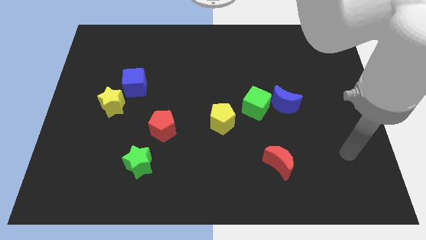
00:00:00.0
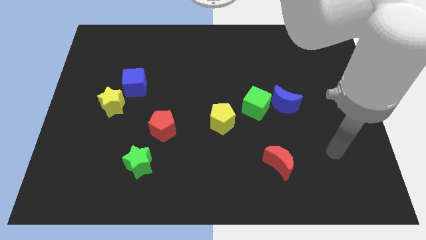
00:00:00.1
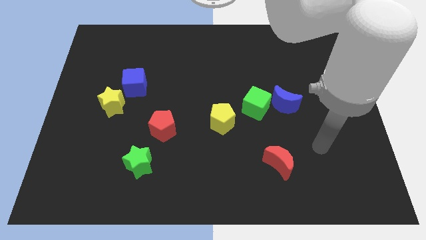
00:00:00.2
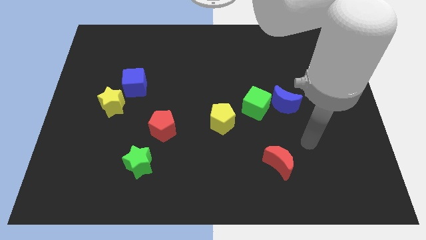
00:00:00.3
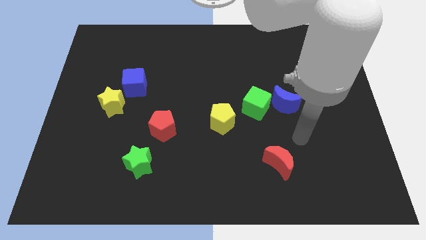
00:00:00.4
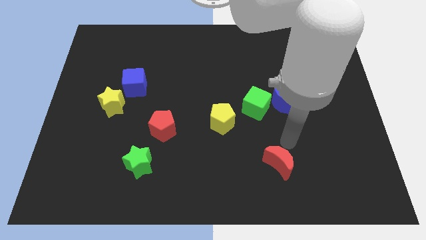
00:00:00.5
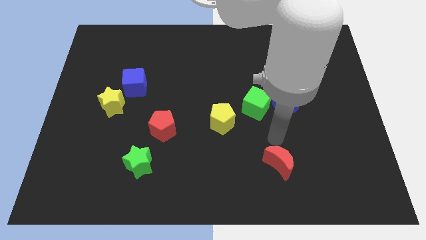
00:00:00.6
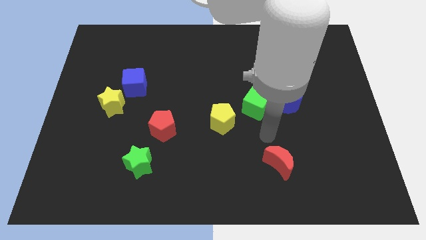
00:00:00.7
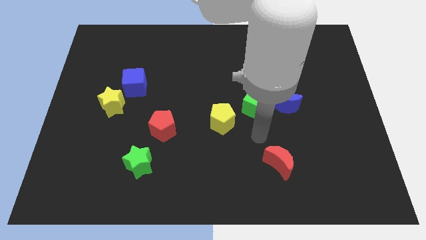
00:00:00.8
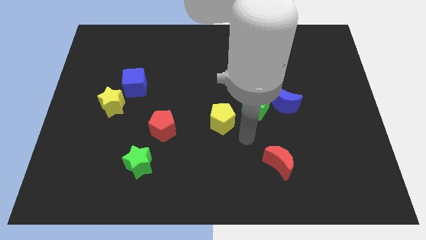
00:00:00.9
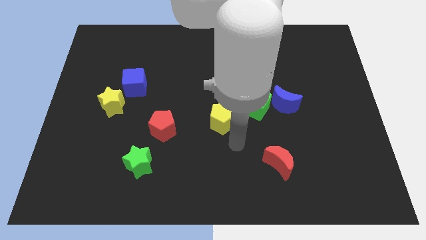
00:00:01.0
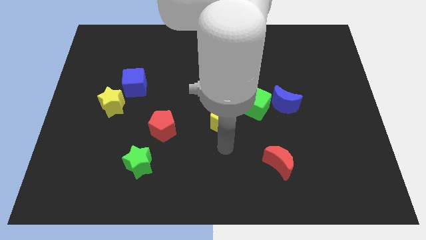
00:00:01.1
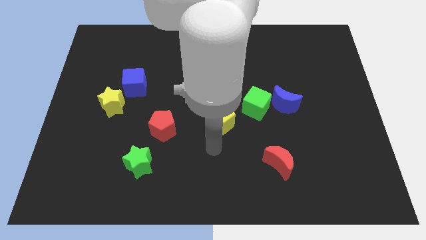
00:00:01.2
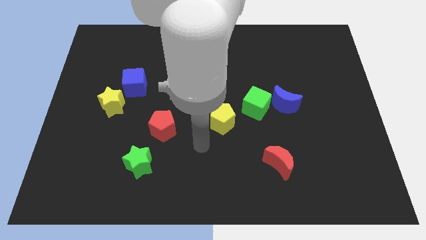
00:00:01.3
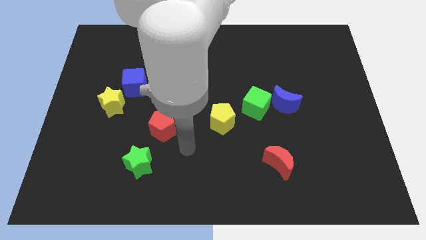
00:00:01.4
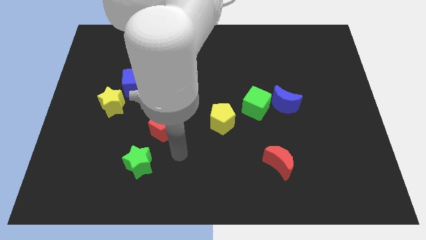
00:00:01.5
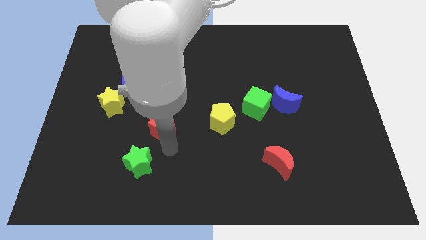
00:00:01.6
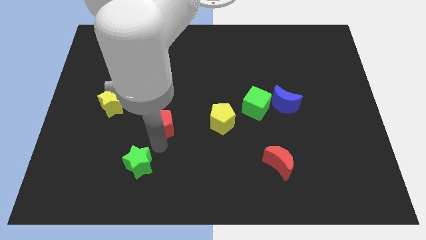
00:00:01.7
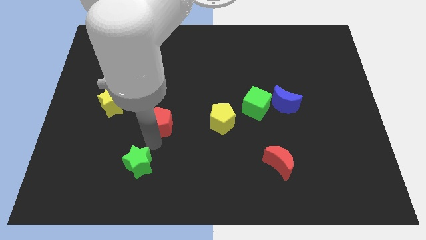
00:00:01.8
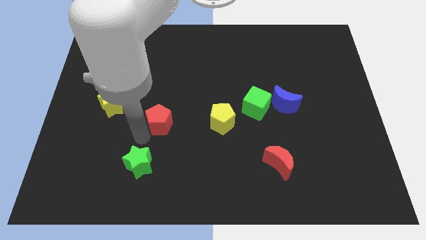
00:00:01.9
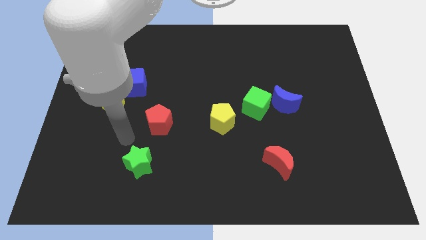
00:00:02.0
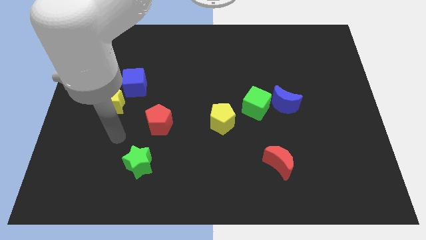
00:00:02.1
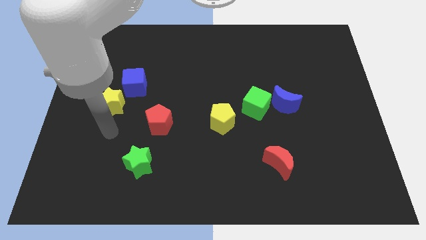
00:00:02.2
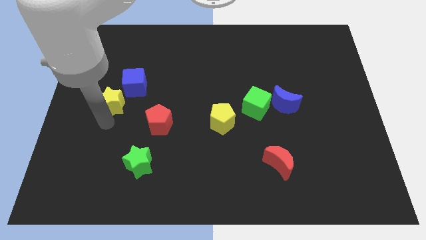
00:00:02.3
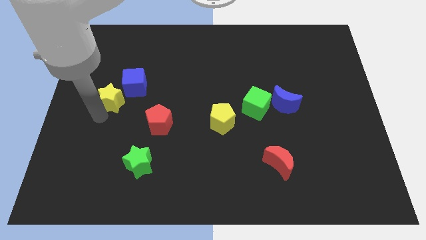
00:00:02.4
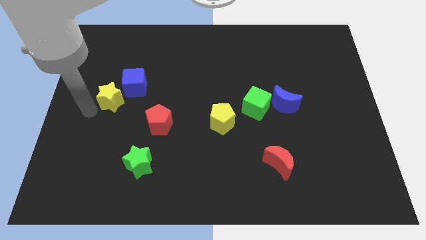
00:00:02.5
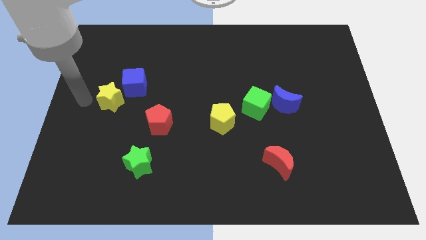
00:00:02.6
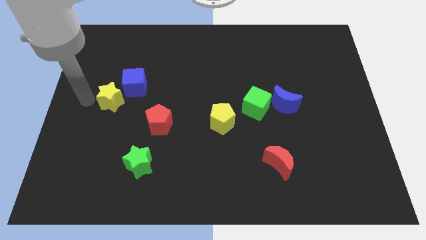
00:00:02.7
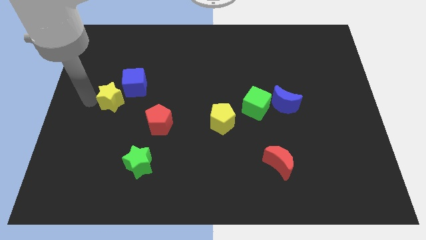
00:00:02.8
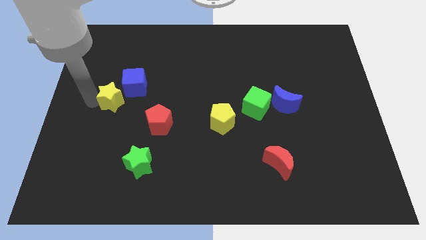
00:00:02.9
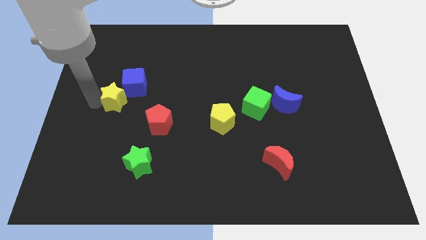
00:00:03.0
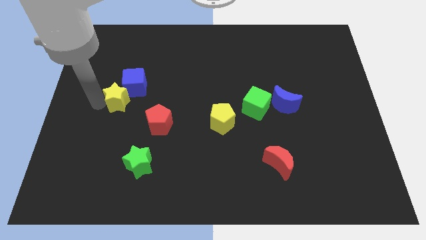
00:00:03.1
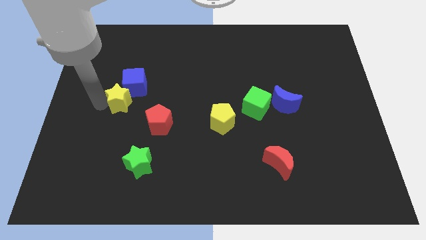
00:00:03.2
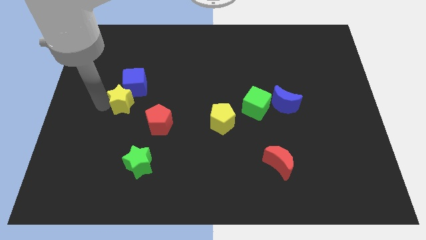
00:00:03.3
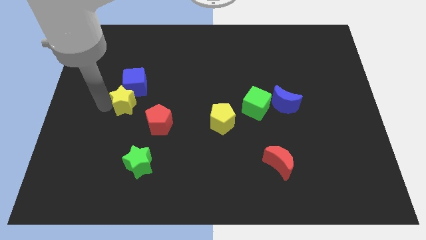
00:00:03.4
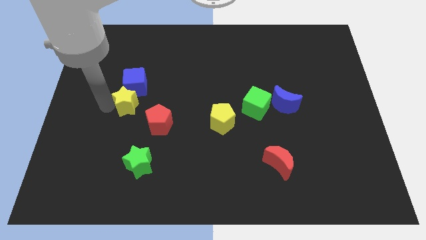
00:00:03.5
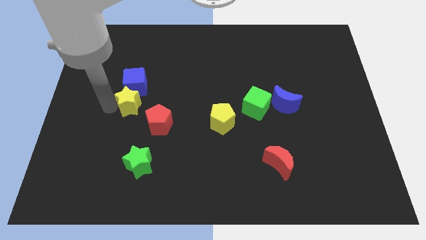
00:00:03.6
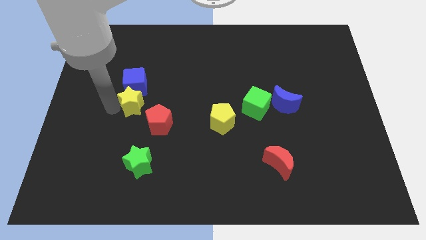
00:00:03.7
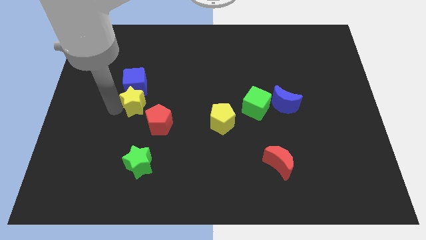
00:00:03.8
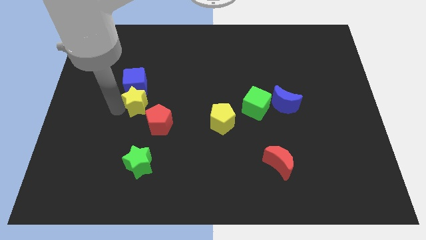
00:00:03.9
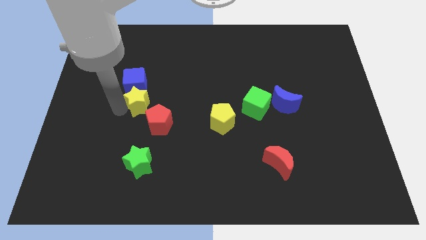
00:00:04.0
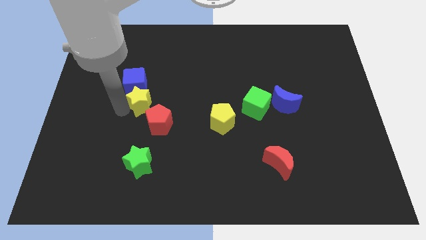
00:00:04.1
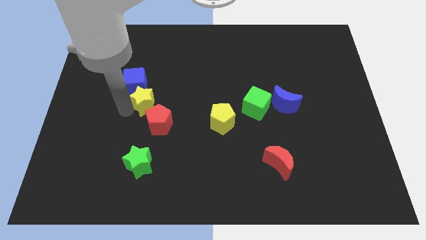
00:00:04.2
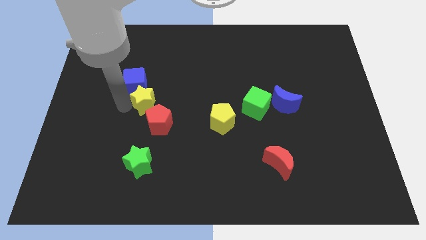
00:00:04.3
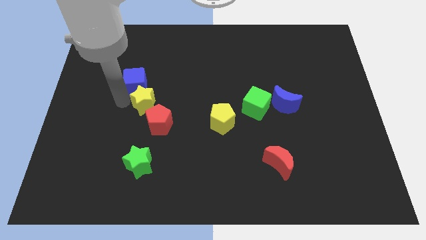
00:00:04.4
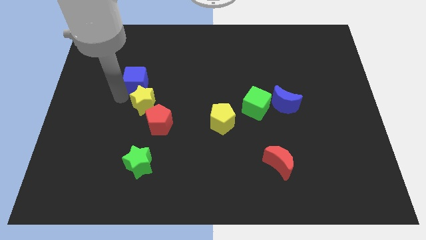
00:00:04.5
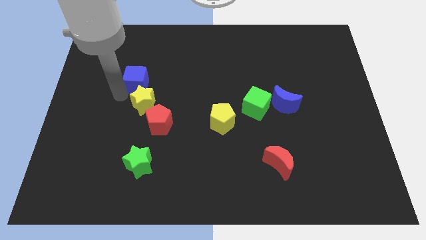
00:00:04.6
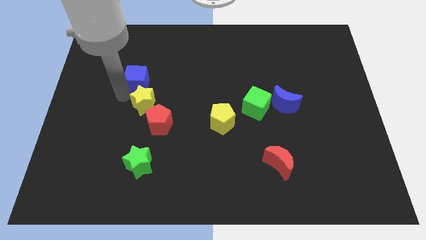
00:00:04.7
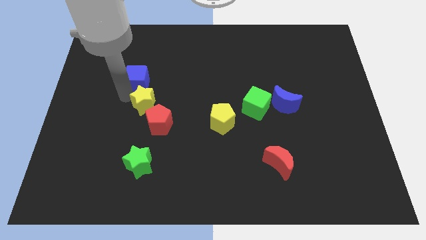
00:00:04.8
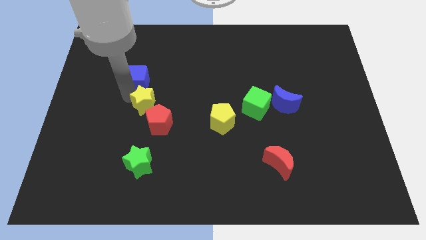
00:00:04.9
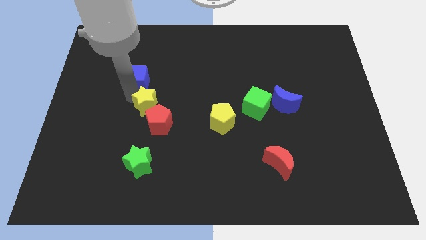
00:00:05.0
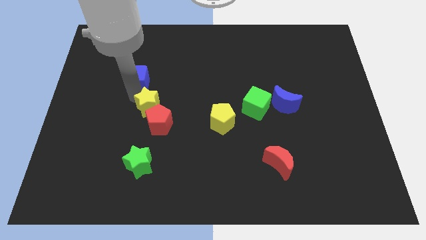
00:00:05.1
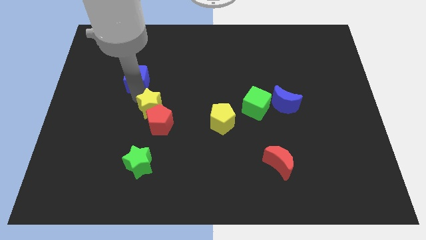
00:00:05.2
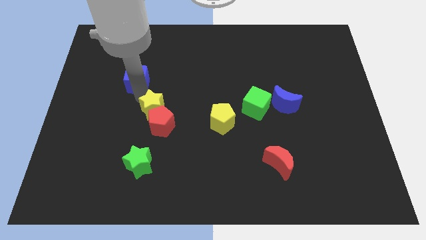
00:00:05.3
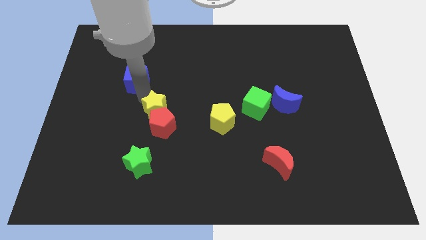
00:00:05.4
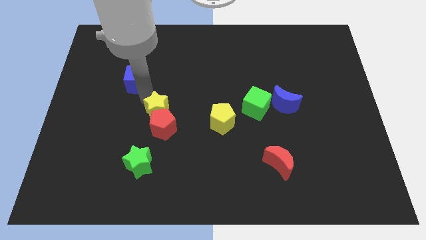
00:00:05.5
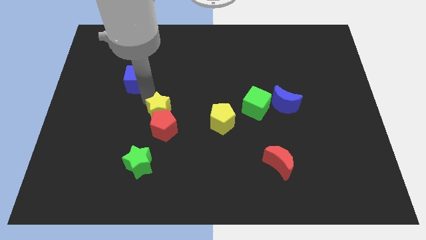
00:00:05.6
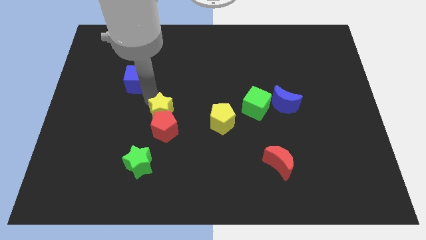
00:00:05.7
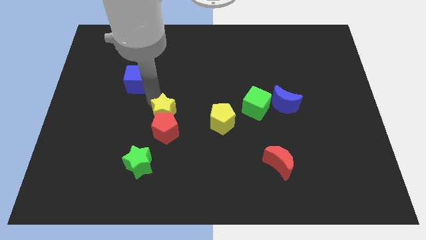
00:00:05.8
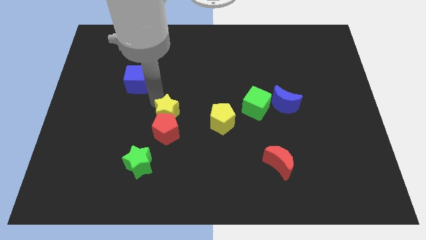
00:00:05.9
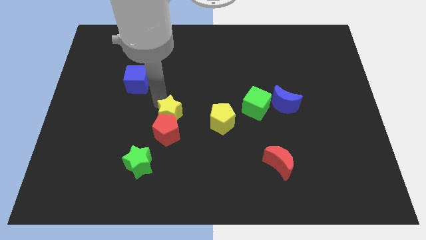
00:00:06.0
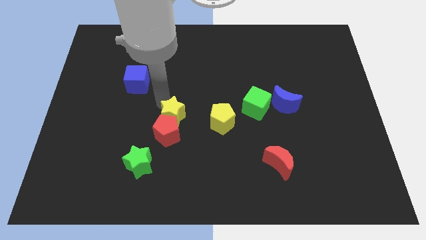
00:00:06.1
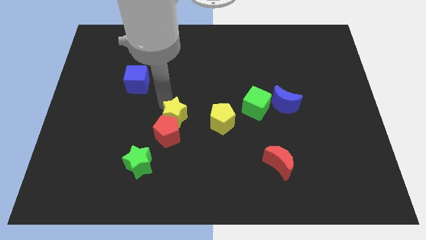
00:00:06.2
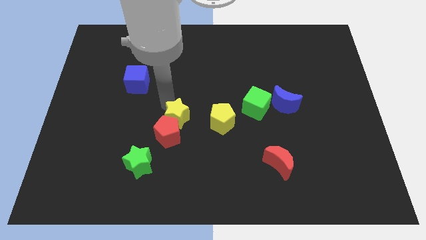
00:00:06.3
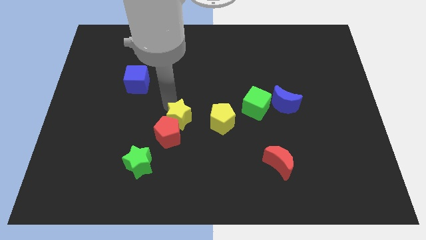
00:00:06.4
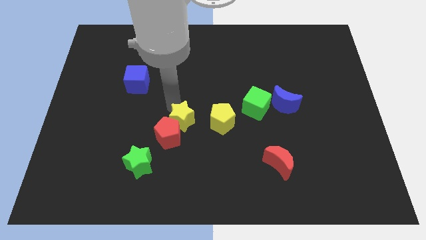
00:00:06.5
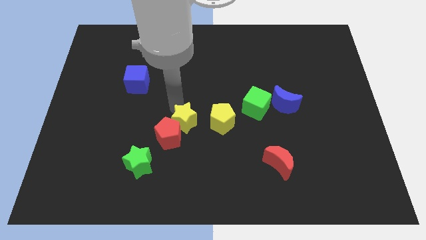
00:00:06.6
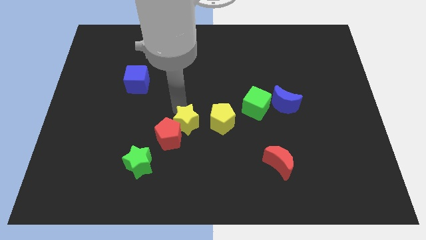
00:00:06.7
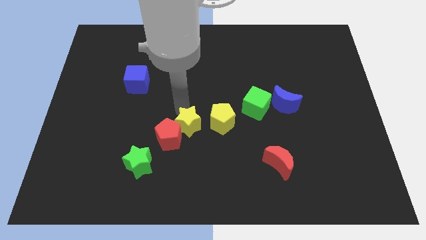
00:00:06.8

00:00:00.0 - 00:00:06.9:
move the yellow star to the bottom left of the yellow pentagon

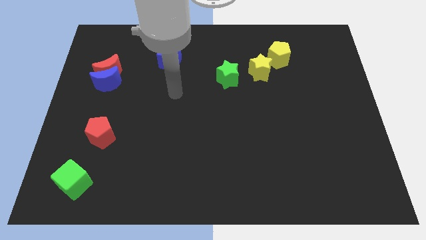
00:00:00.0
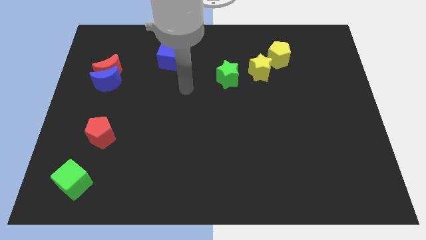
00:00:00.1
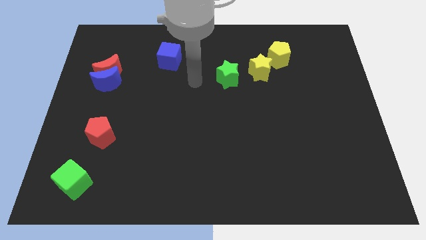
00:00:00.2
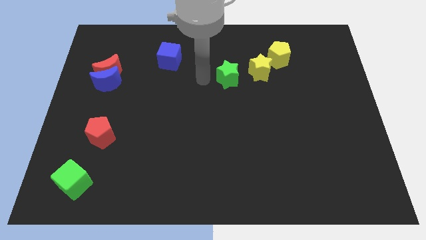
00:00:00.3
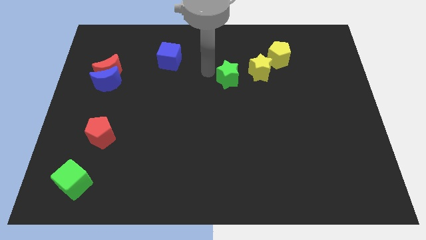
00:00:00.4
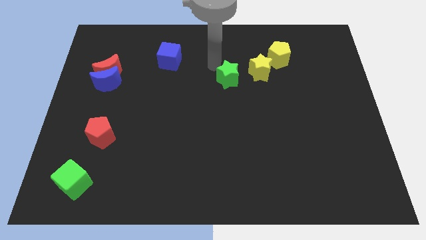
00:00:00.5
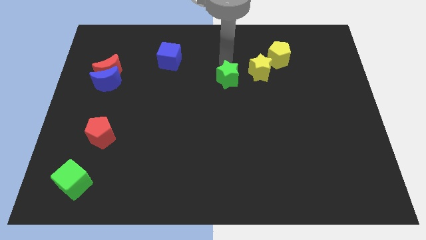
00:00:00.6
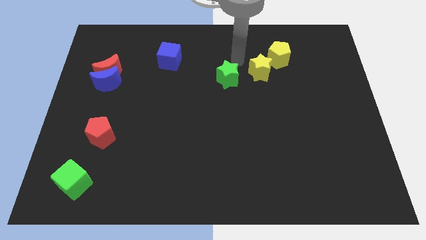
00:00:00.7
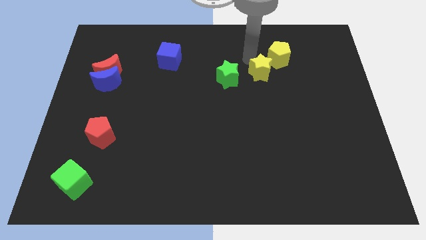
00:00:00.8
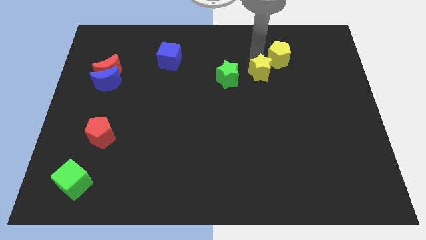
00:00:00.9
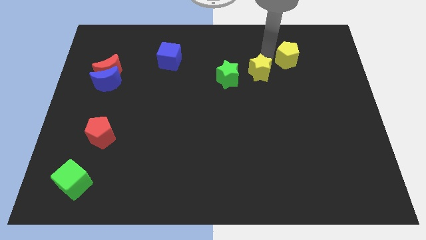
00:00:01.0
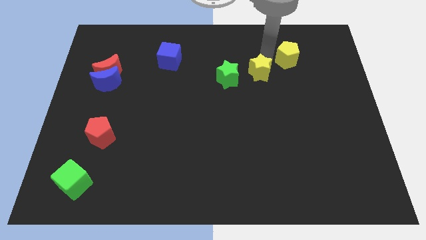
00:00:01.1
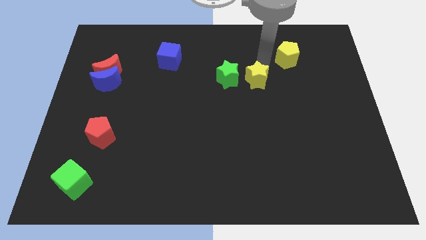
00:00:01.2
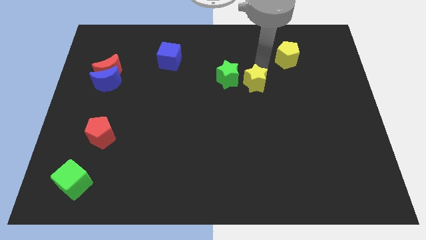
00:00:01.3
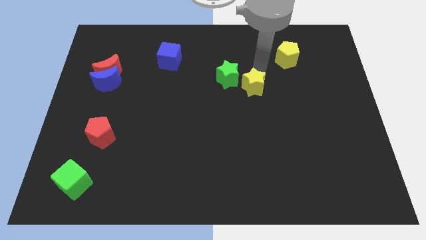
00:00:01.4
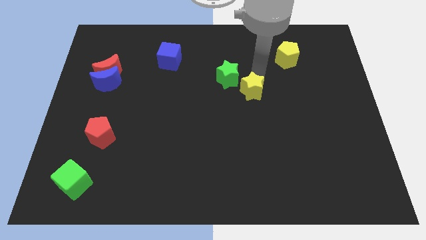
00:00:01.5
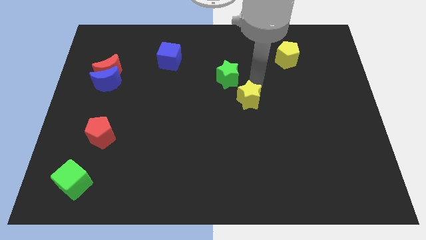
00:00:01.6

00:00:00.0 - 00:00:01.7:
put the yellow star below the green star
